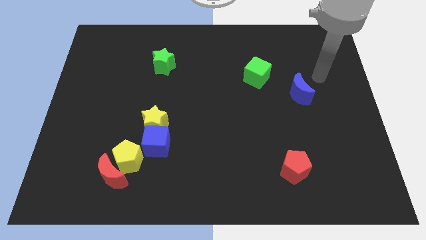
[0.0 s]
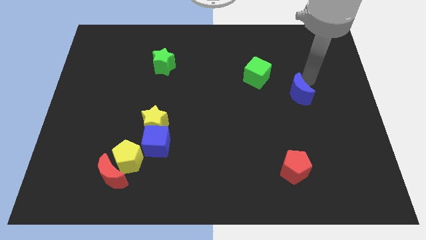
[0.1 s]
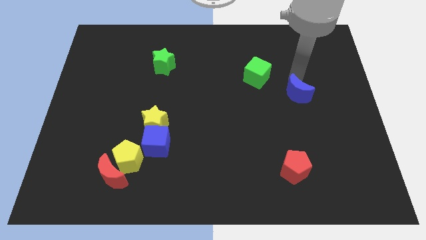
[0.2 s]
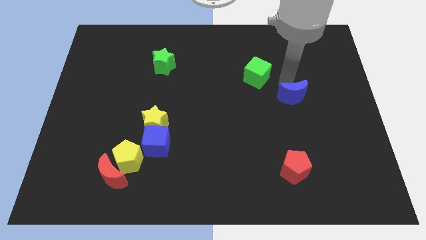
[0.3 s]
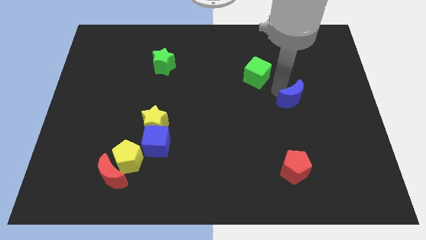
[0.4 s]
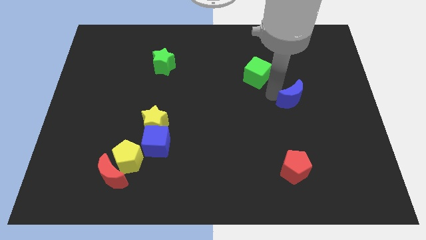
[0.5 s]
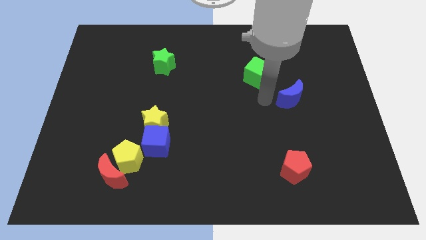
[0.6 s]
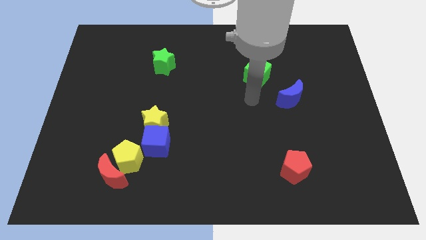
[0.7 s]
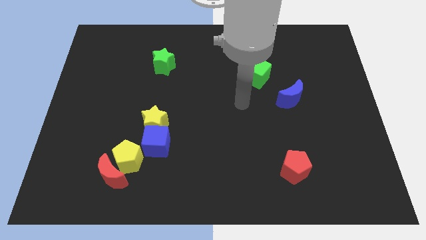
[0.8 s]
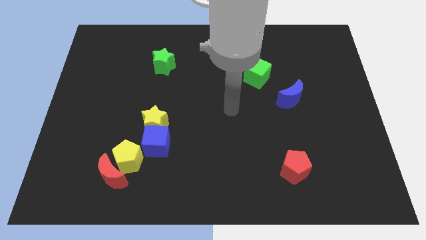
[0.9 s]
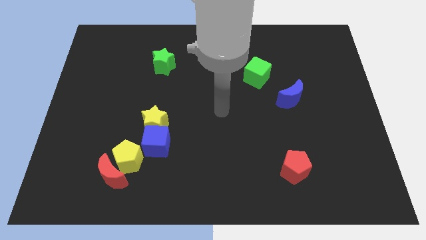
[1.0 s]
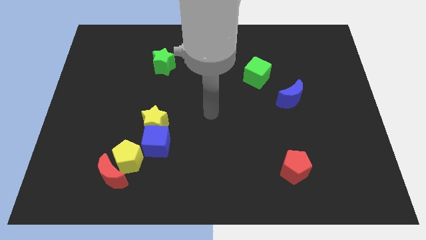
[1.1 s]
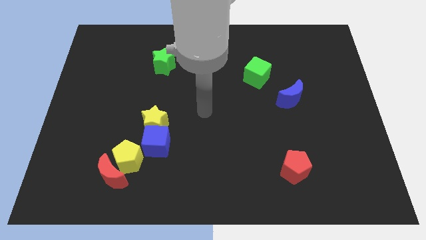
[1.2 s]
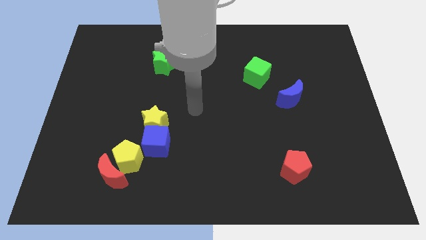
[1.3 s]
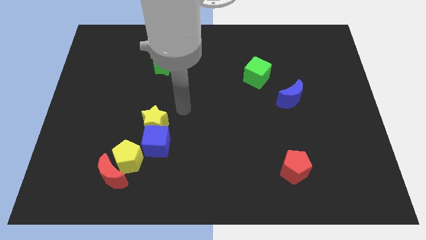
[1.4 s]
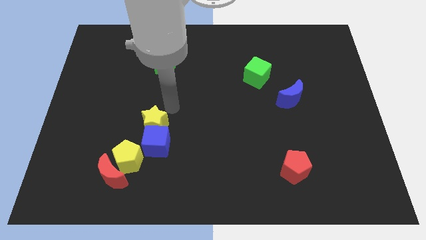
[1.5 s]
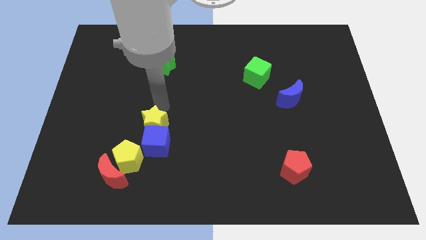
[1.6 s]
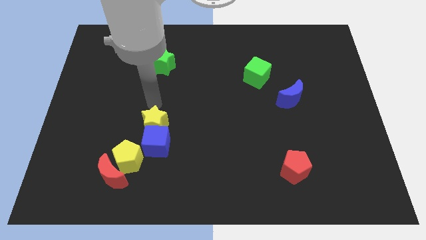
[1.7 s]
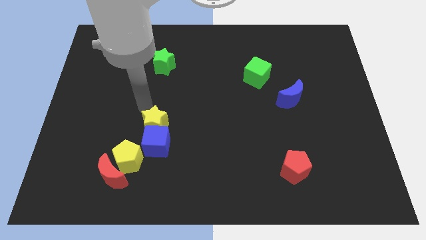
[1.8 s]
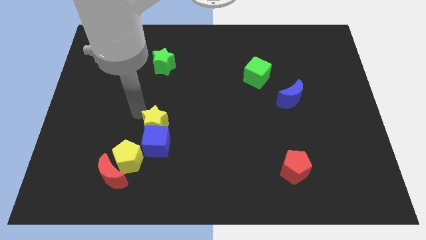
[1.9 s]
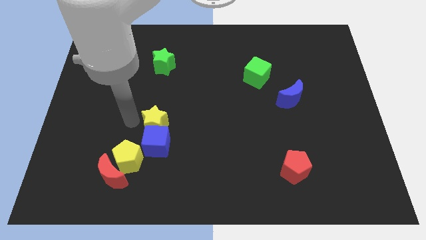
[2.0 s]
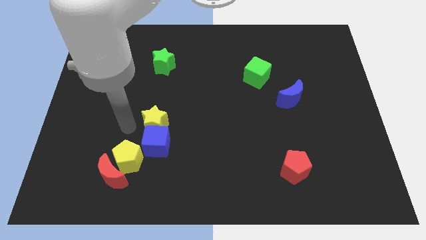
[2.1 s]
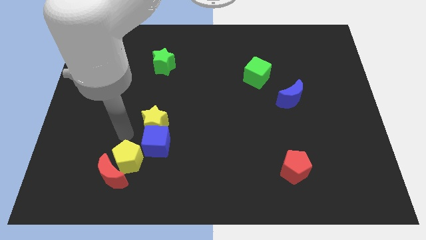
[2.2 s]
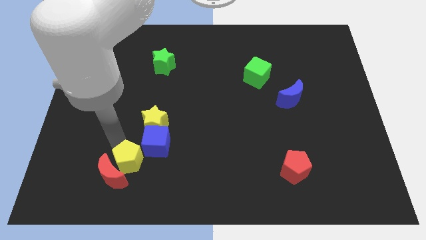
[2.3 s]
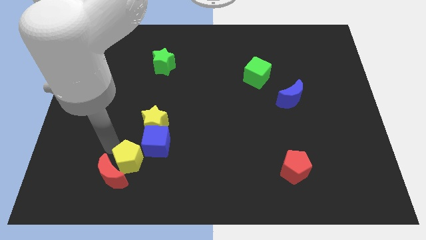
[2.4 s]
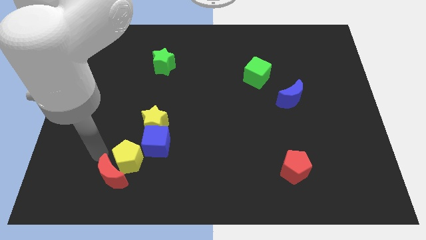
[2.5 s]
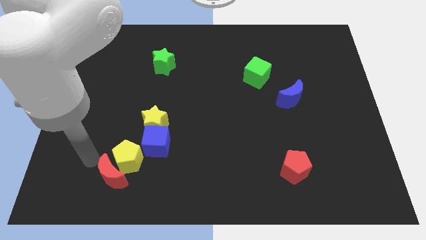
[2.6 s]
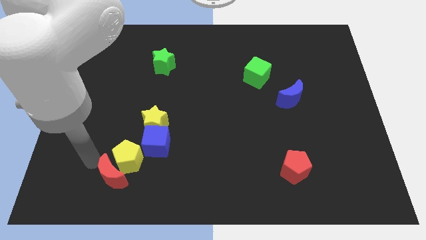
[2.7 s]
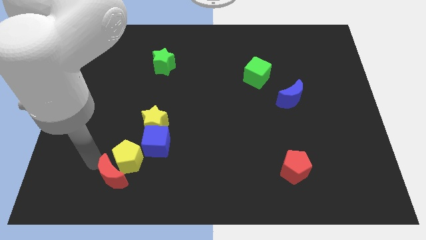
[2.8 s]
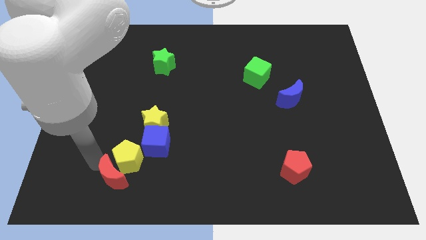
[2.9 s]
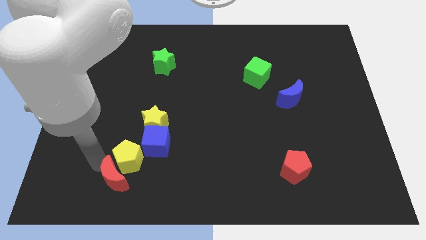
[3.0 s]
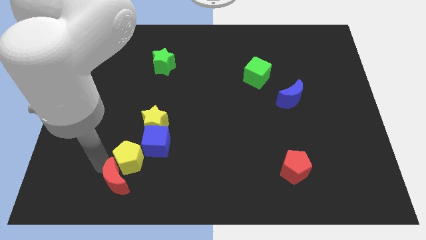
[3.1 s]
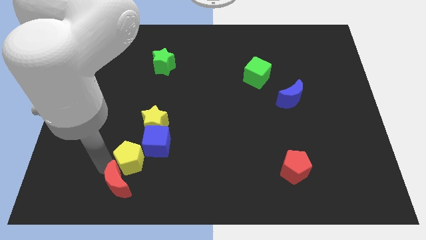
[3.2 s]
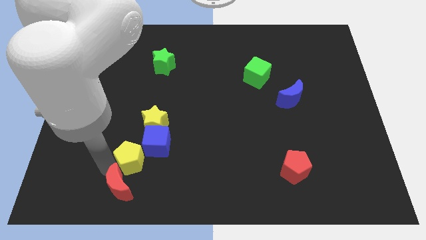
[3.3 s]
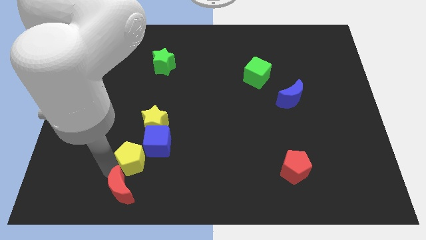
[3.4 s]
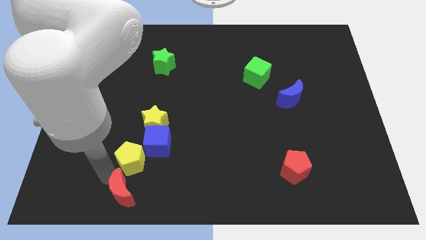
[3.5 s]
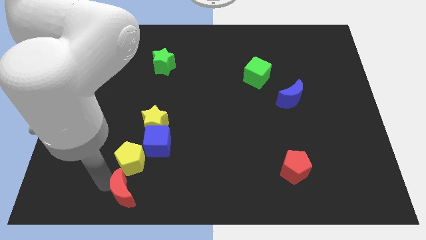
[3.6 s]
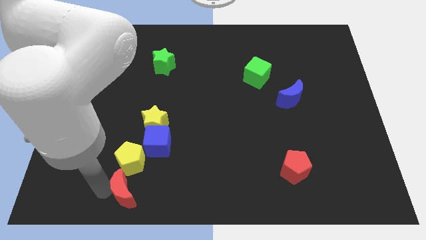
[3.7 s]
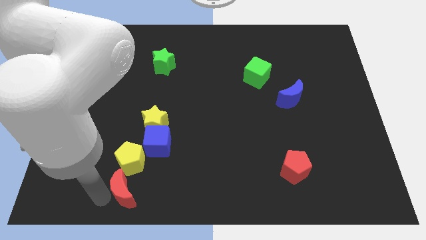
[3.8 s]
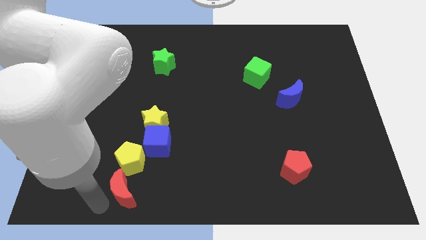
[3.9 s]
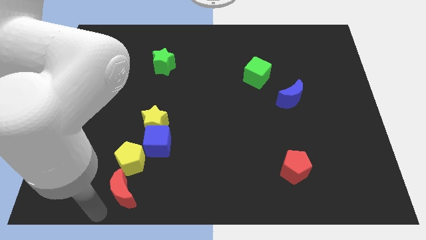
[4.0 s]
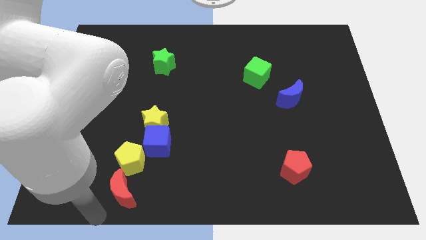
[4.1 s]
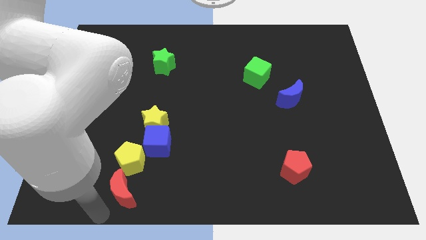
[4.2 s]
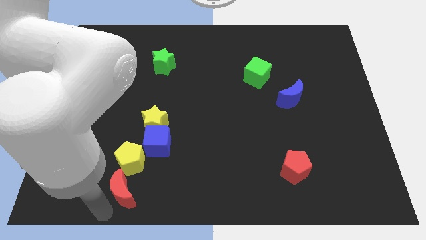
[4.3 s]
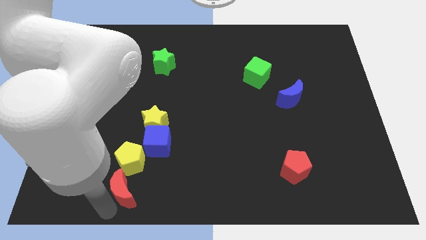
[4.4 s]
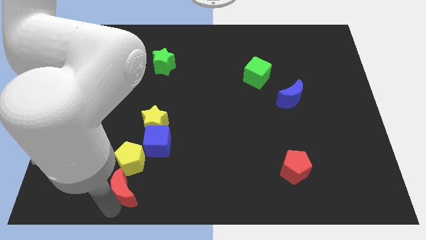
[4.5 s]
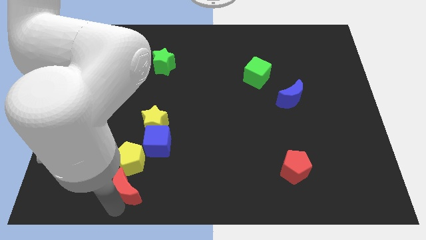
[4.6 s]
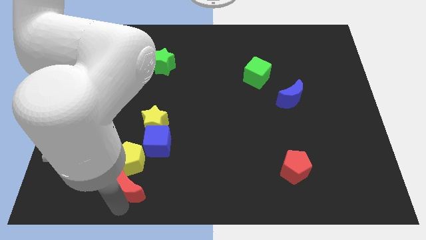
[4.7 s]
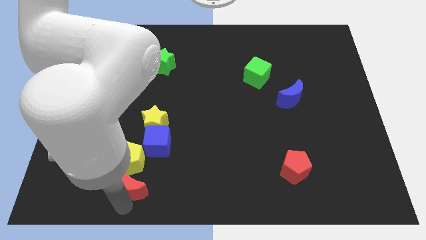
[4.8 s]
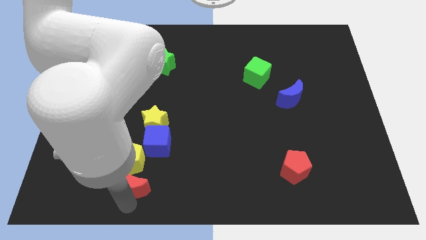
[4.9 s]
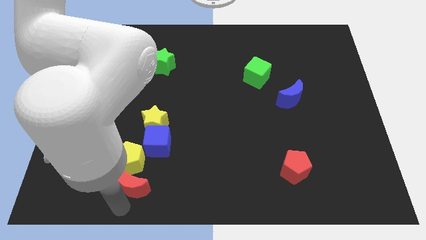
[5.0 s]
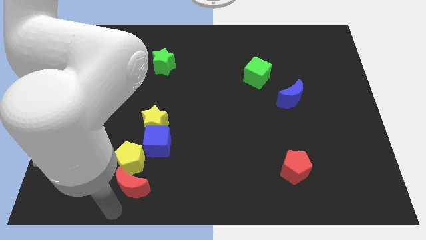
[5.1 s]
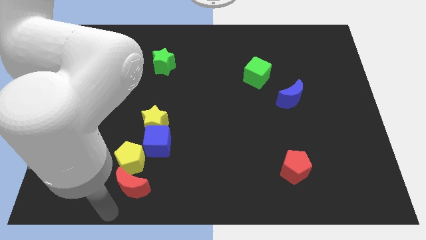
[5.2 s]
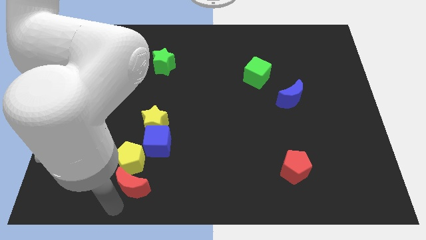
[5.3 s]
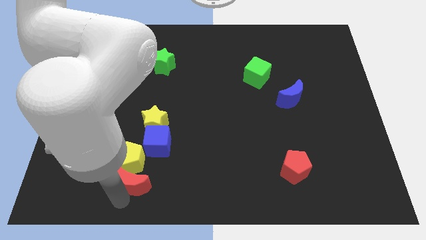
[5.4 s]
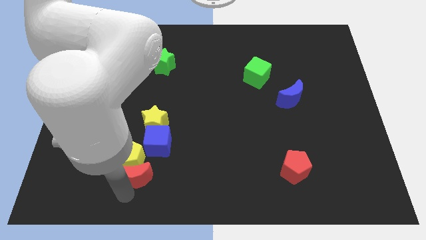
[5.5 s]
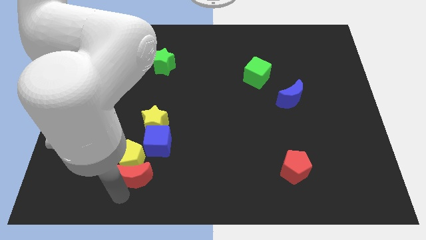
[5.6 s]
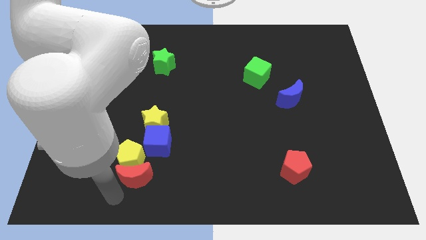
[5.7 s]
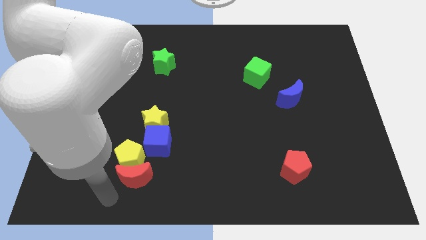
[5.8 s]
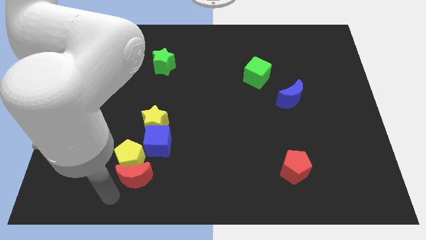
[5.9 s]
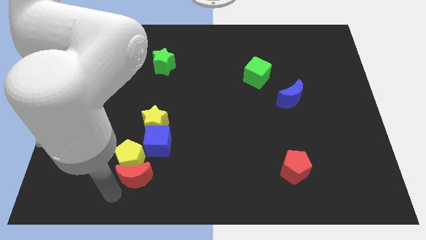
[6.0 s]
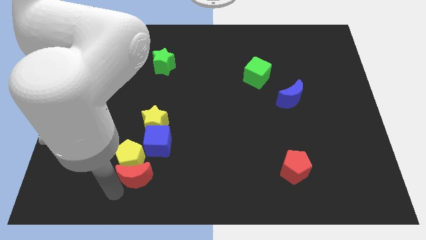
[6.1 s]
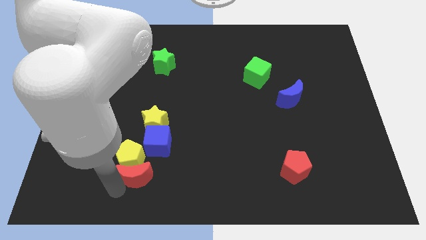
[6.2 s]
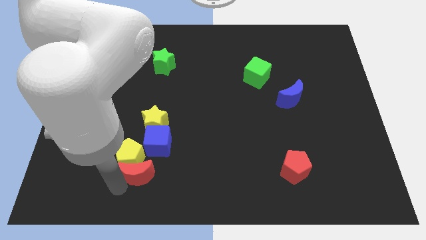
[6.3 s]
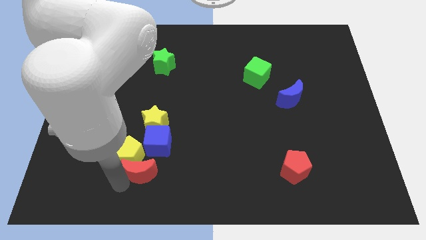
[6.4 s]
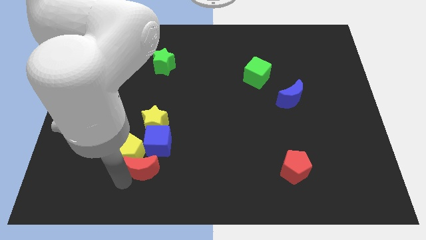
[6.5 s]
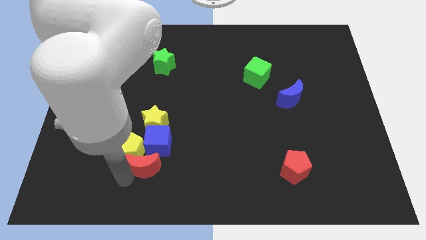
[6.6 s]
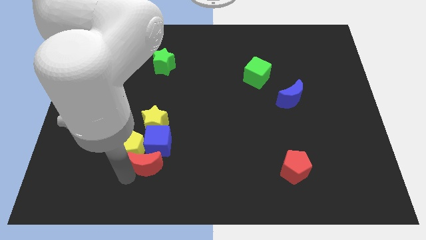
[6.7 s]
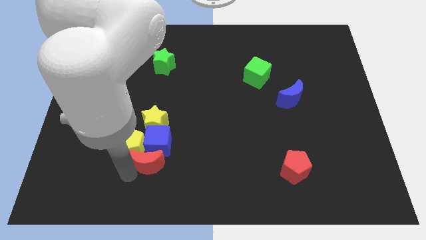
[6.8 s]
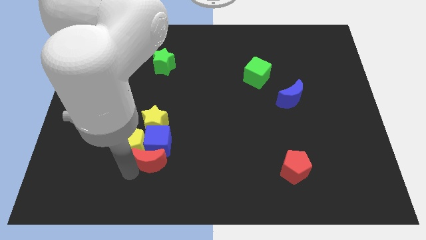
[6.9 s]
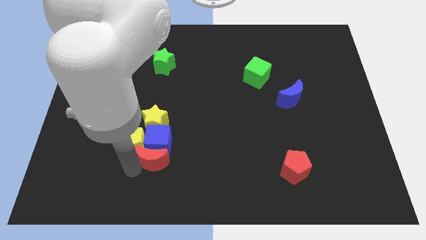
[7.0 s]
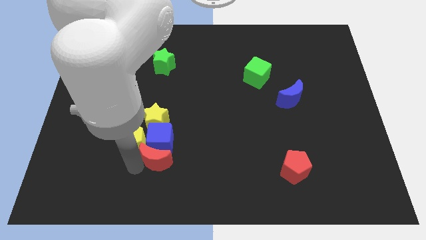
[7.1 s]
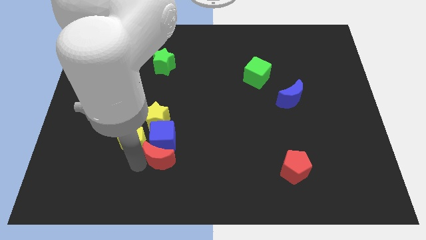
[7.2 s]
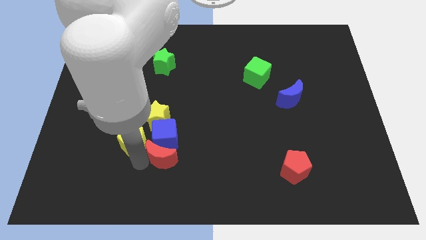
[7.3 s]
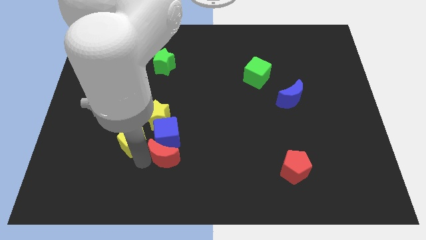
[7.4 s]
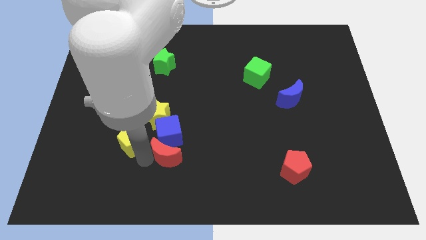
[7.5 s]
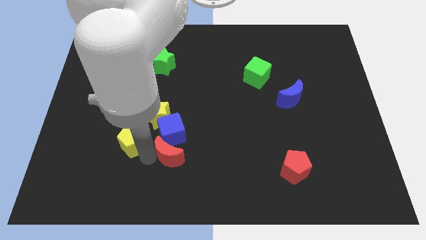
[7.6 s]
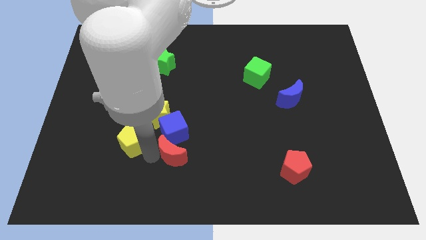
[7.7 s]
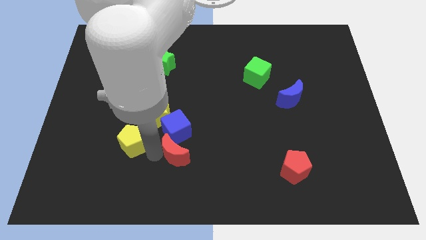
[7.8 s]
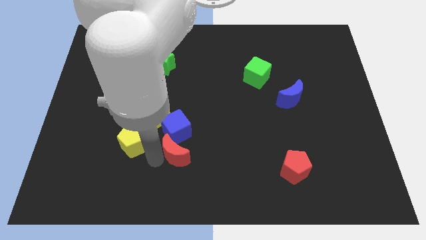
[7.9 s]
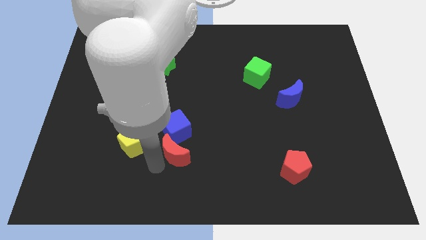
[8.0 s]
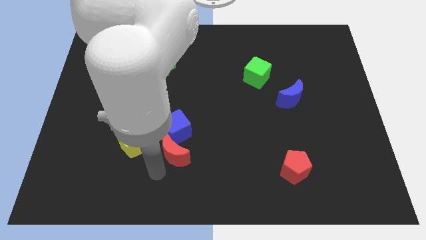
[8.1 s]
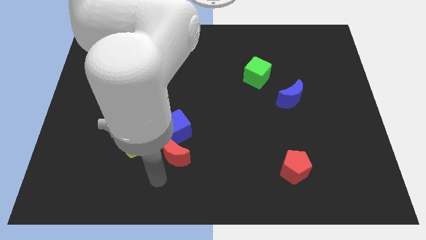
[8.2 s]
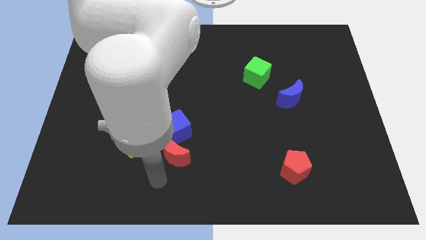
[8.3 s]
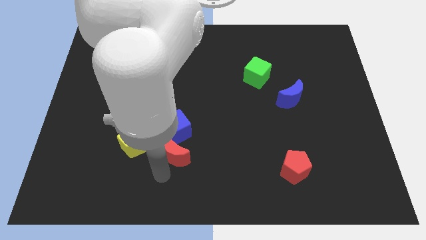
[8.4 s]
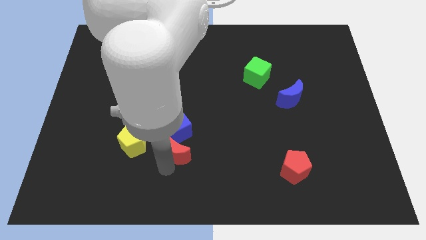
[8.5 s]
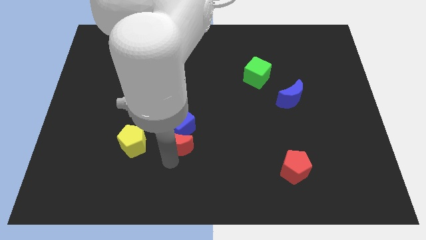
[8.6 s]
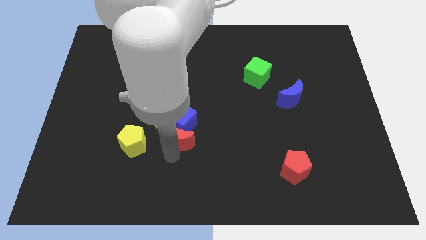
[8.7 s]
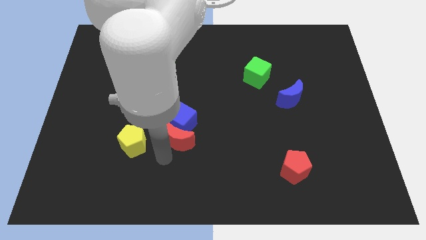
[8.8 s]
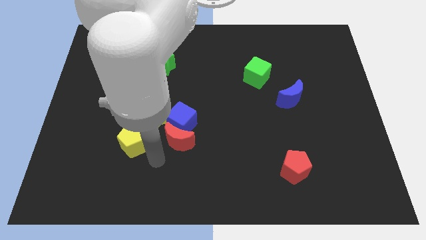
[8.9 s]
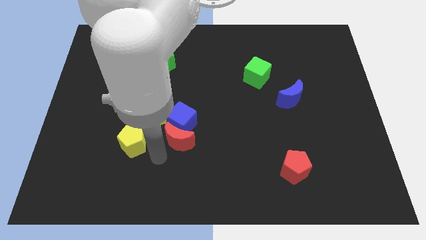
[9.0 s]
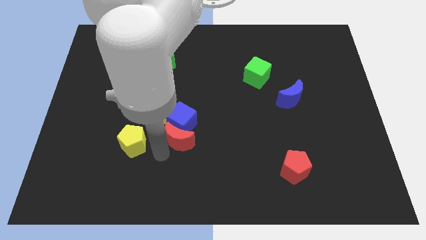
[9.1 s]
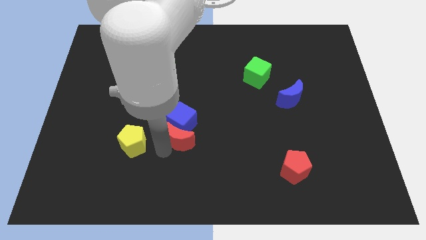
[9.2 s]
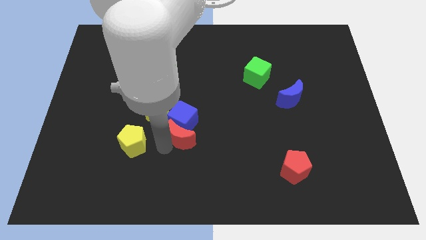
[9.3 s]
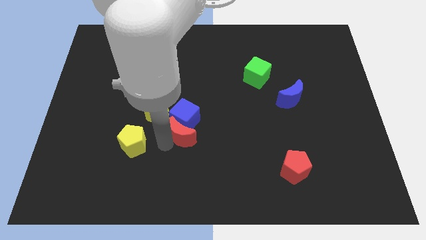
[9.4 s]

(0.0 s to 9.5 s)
put the red moon to the center
